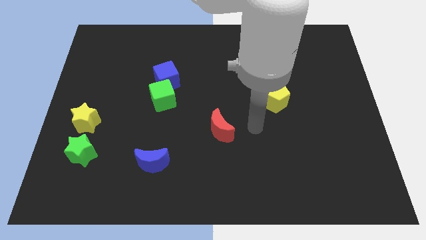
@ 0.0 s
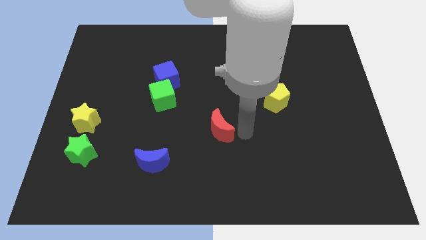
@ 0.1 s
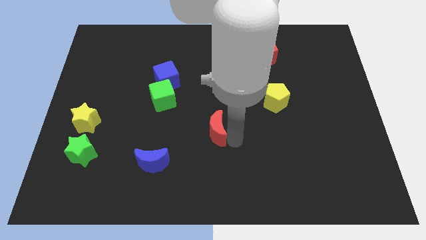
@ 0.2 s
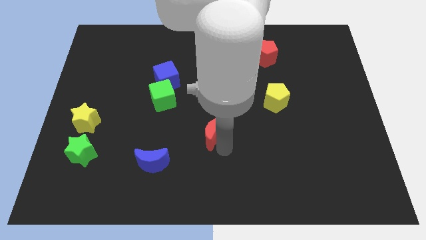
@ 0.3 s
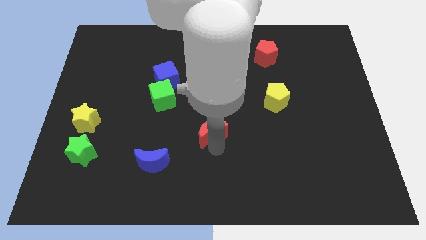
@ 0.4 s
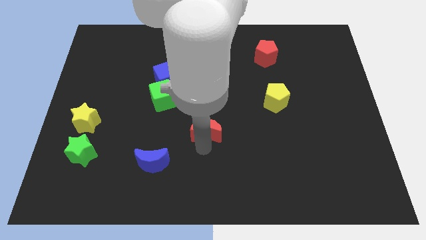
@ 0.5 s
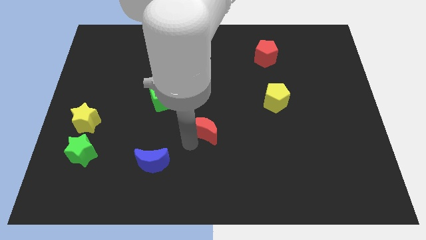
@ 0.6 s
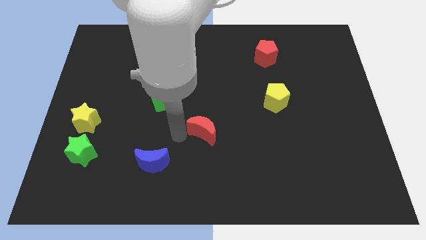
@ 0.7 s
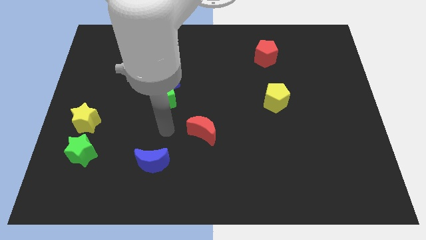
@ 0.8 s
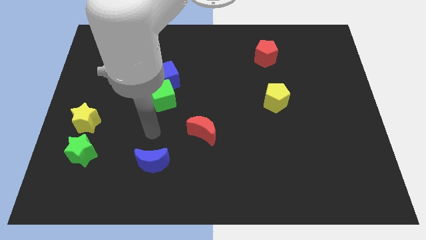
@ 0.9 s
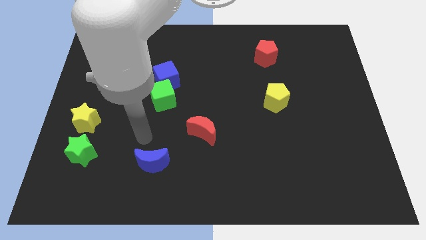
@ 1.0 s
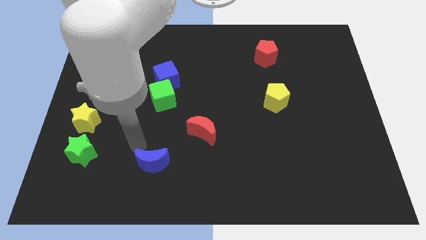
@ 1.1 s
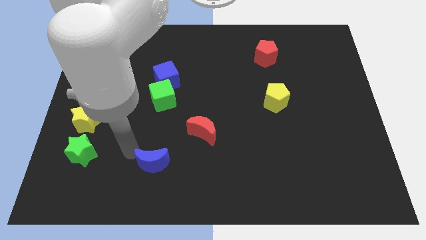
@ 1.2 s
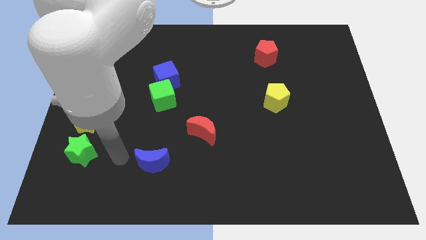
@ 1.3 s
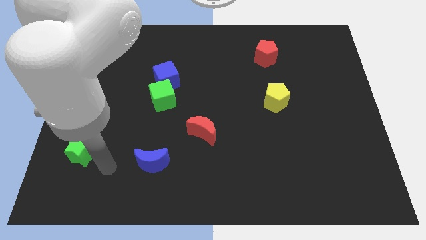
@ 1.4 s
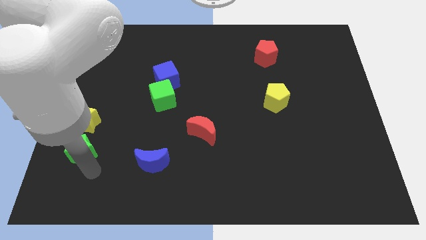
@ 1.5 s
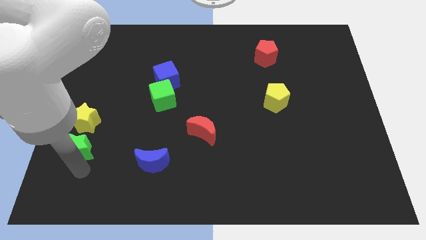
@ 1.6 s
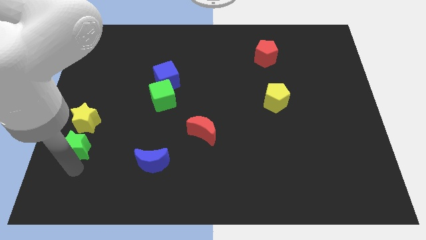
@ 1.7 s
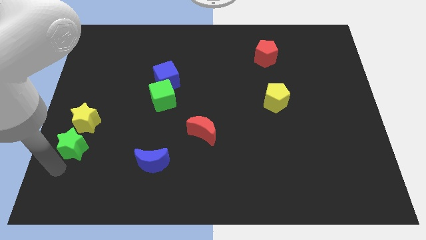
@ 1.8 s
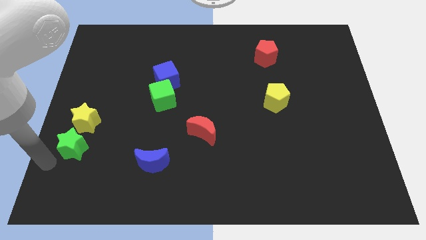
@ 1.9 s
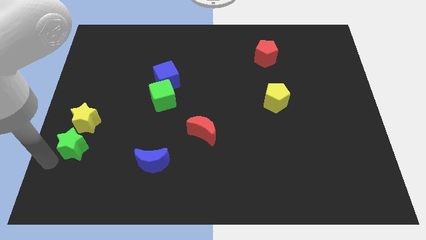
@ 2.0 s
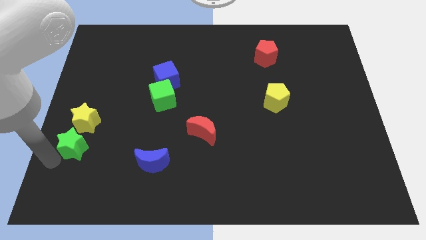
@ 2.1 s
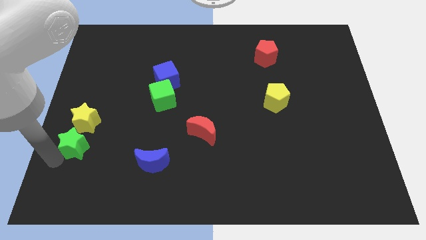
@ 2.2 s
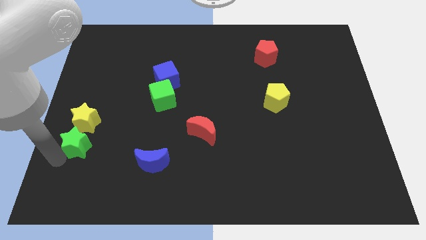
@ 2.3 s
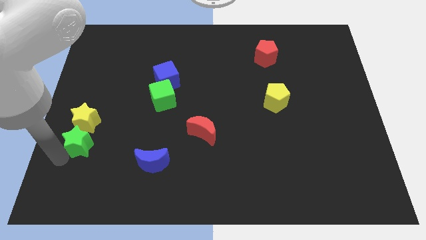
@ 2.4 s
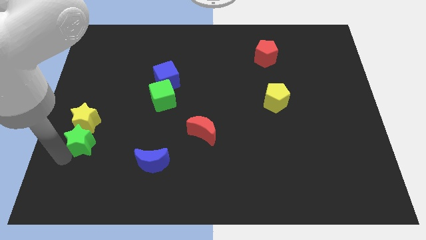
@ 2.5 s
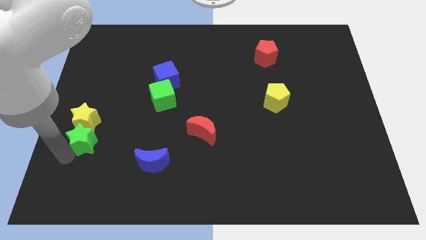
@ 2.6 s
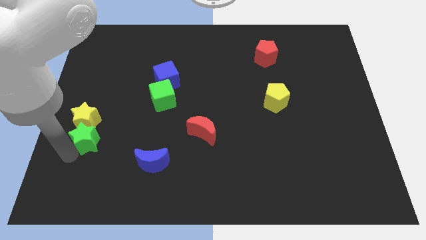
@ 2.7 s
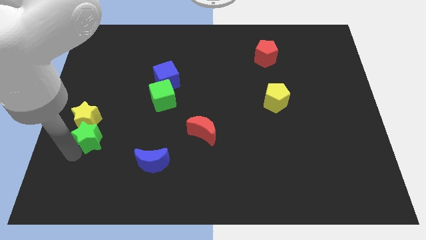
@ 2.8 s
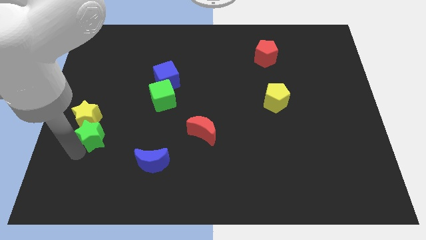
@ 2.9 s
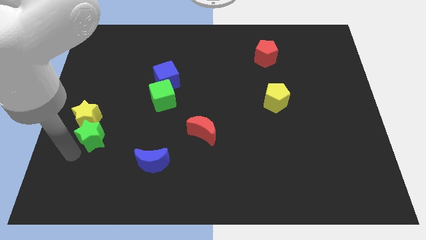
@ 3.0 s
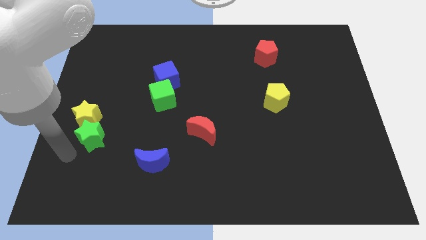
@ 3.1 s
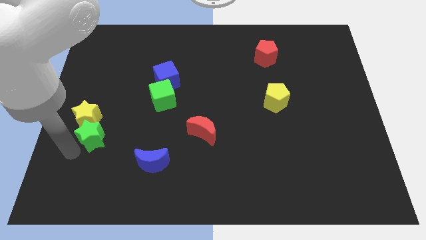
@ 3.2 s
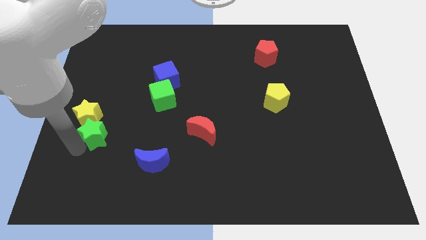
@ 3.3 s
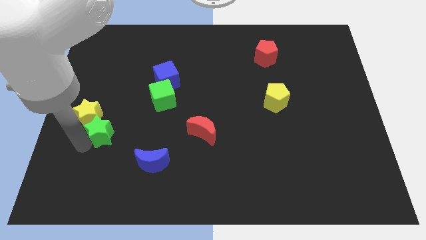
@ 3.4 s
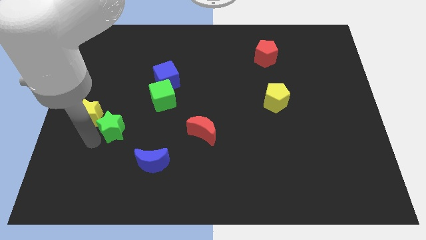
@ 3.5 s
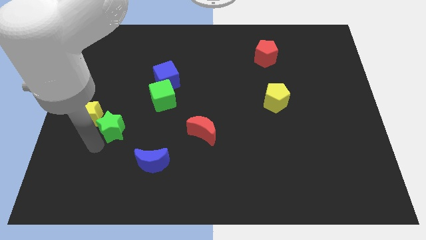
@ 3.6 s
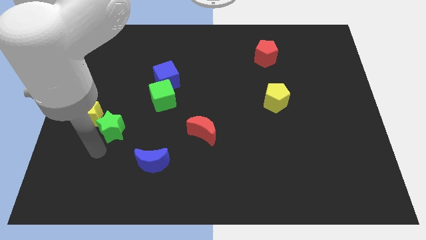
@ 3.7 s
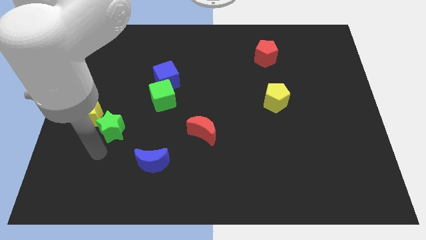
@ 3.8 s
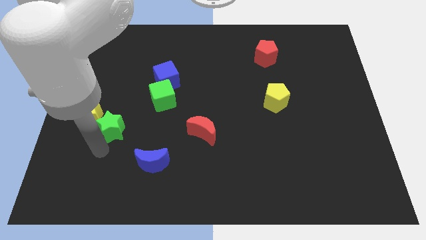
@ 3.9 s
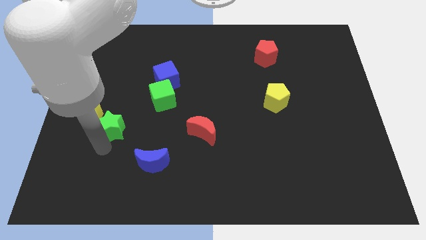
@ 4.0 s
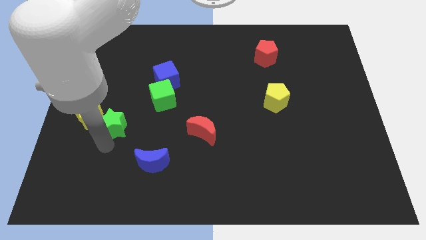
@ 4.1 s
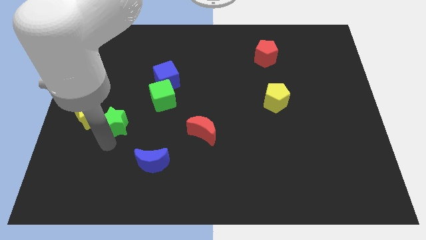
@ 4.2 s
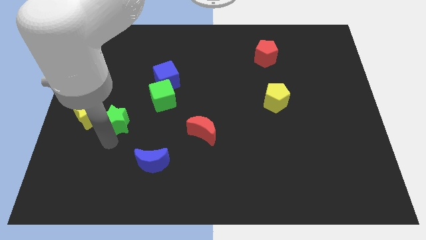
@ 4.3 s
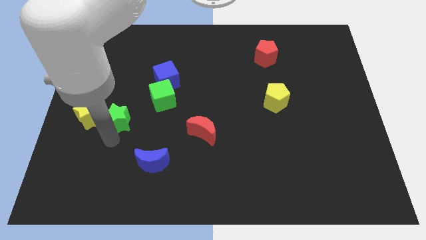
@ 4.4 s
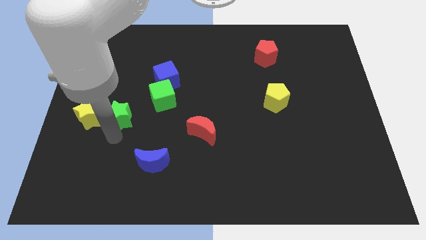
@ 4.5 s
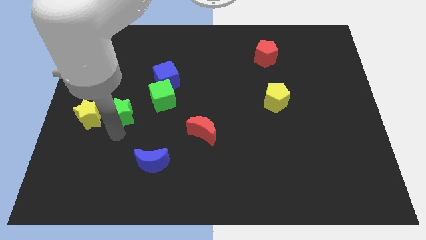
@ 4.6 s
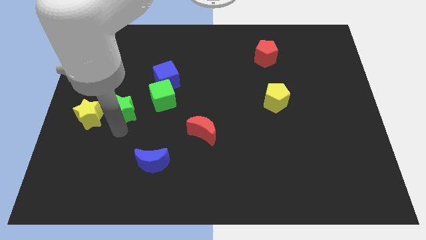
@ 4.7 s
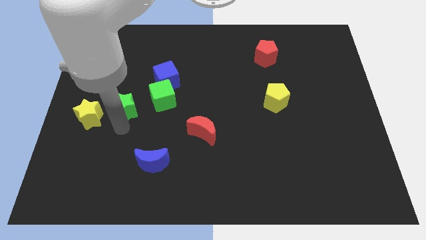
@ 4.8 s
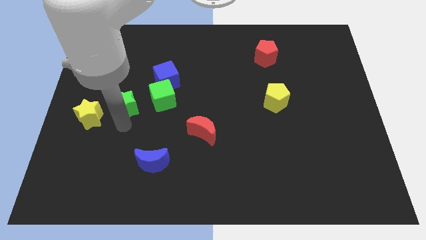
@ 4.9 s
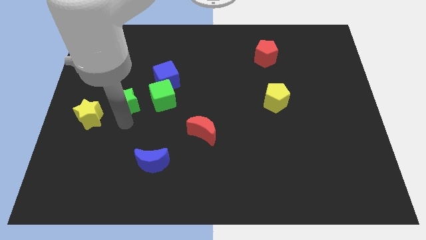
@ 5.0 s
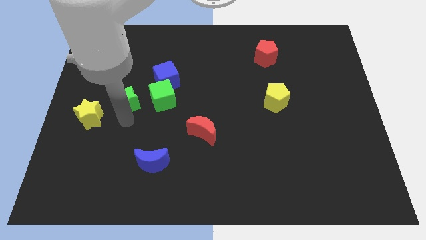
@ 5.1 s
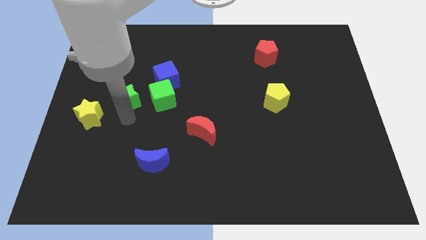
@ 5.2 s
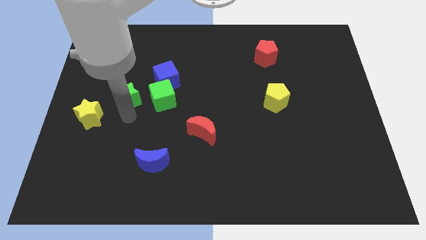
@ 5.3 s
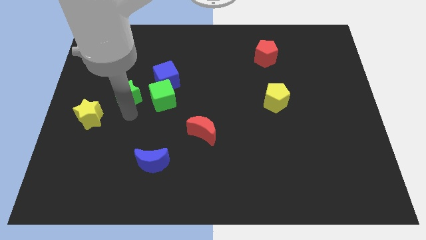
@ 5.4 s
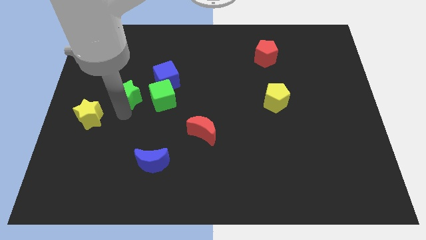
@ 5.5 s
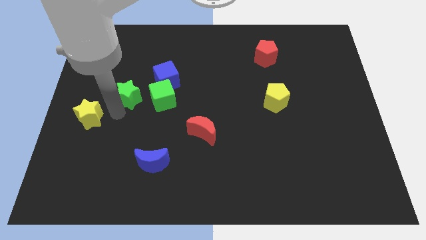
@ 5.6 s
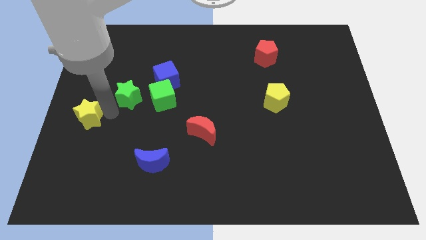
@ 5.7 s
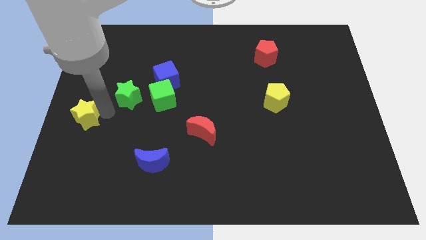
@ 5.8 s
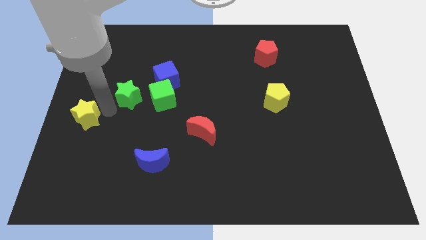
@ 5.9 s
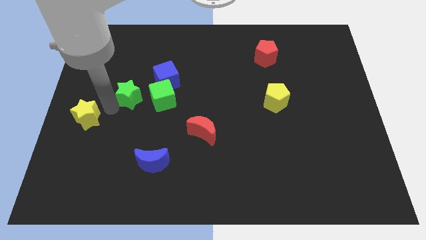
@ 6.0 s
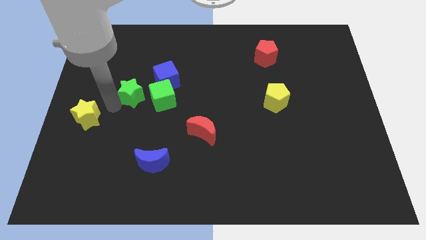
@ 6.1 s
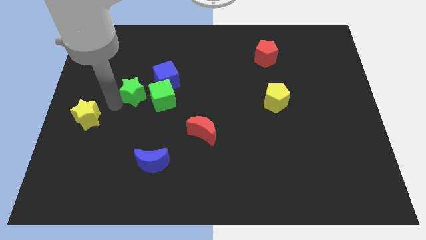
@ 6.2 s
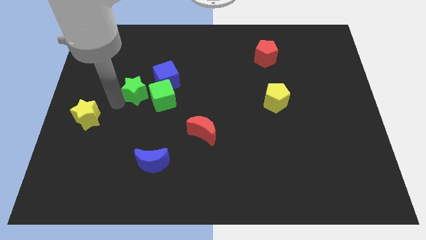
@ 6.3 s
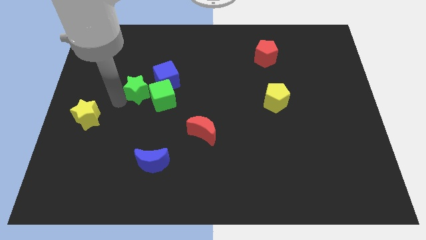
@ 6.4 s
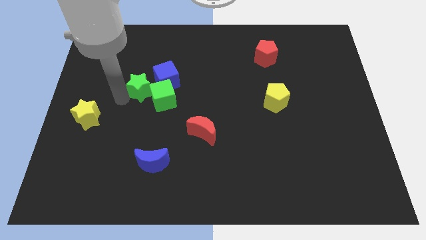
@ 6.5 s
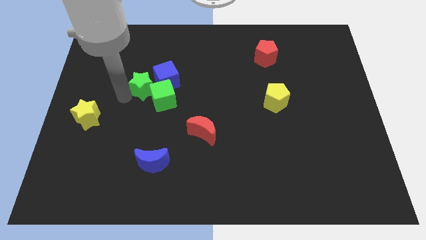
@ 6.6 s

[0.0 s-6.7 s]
slide the green star close to the blue cube

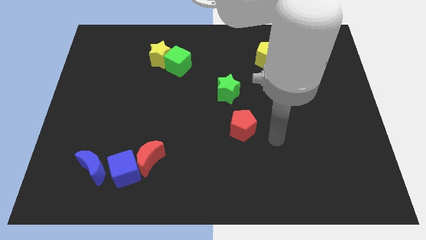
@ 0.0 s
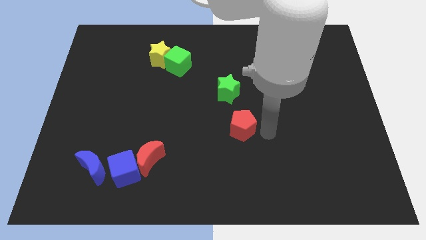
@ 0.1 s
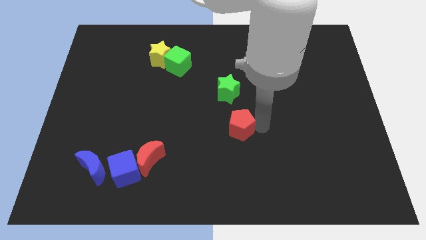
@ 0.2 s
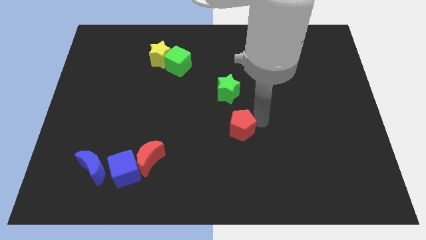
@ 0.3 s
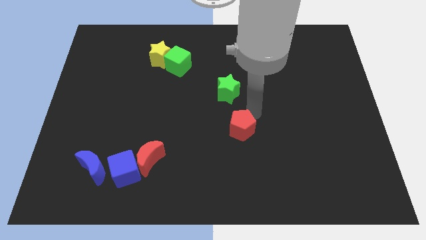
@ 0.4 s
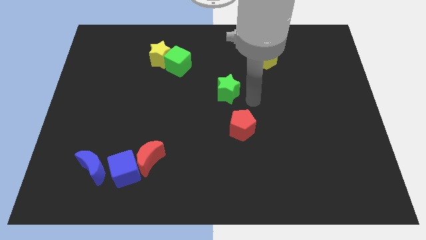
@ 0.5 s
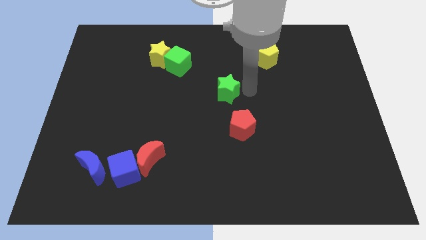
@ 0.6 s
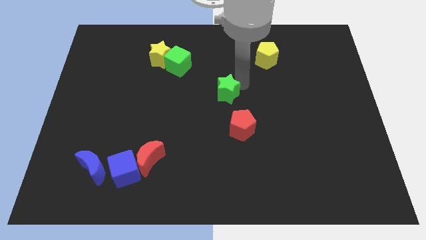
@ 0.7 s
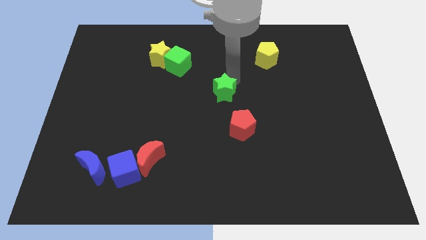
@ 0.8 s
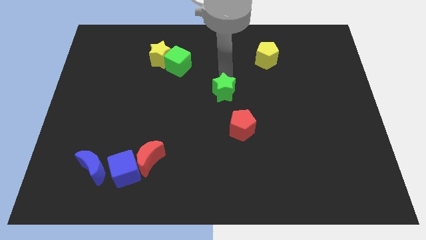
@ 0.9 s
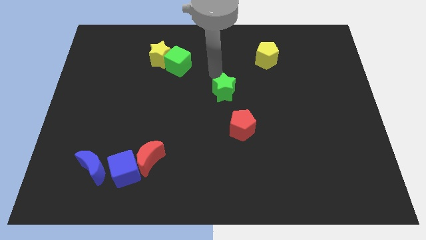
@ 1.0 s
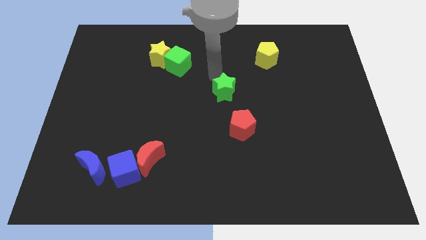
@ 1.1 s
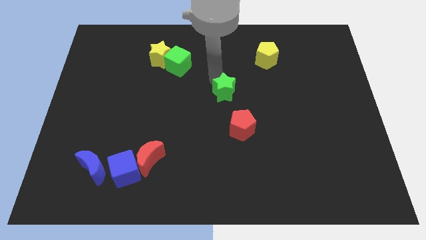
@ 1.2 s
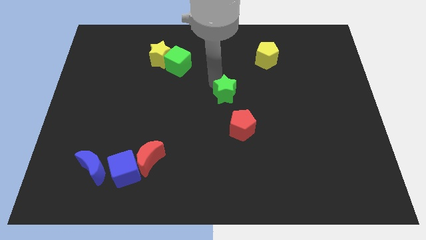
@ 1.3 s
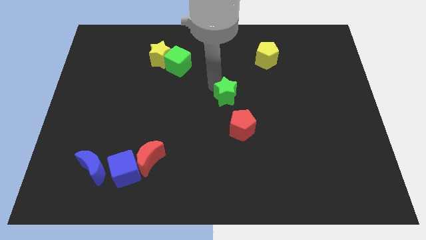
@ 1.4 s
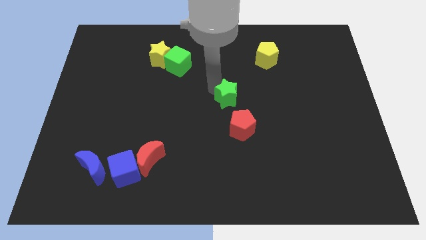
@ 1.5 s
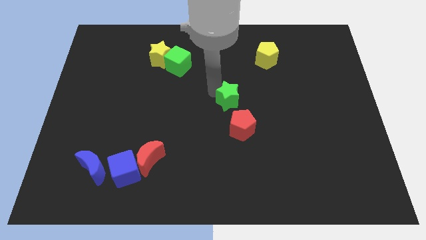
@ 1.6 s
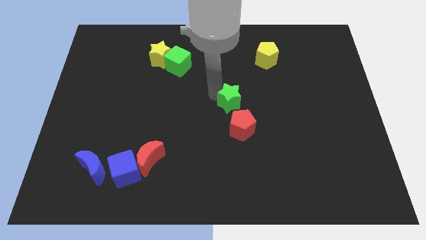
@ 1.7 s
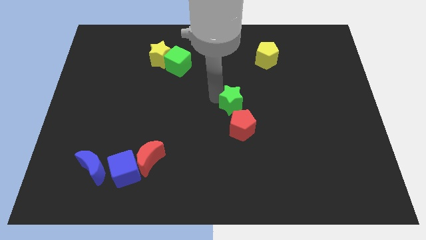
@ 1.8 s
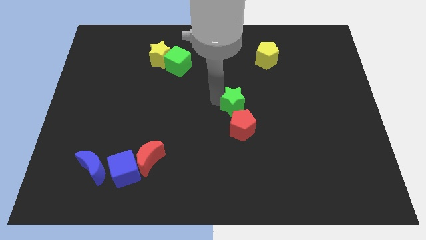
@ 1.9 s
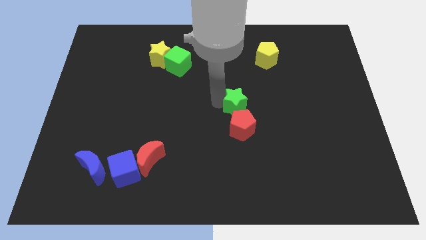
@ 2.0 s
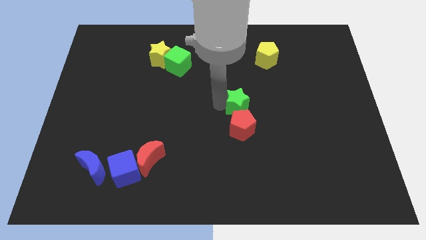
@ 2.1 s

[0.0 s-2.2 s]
move the green star to the red pentagon
